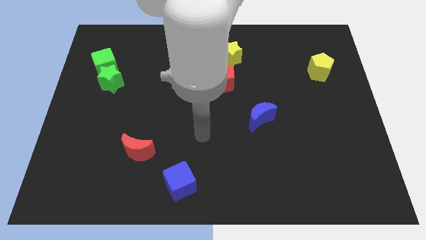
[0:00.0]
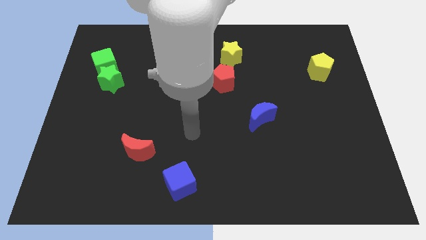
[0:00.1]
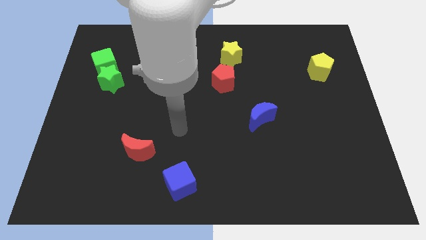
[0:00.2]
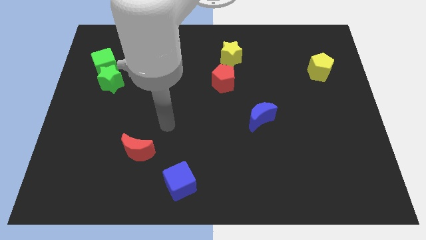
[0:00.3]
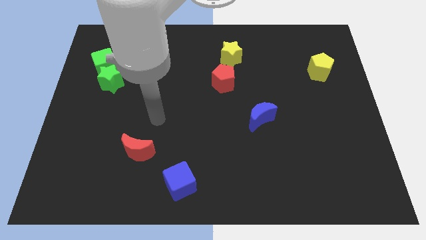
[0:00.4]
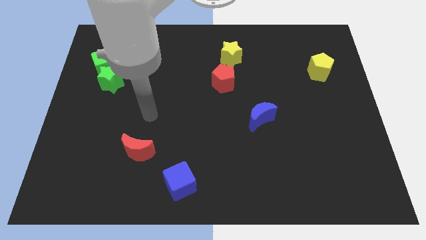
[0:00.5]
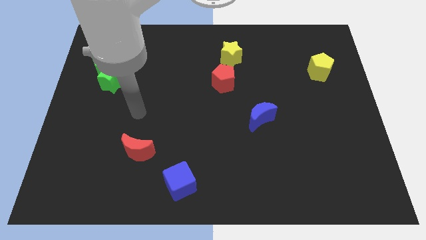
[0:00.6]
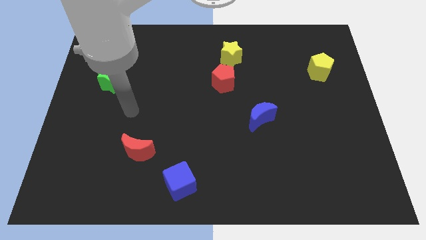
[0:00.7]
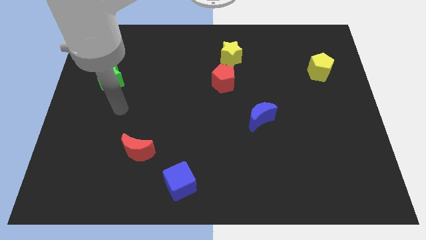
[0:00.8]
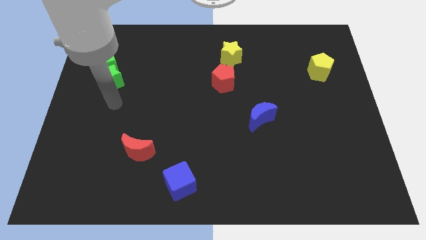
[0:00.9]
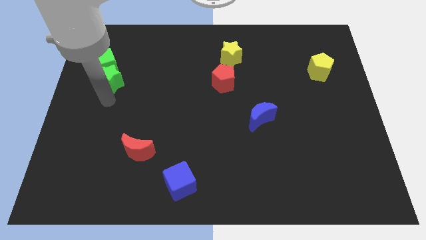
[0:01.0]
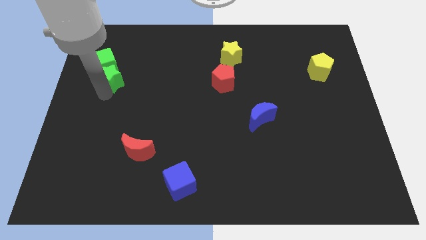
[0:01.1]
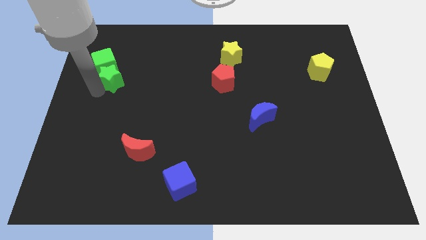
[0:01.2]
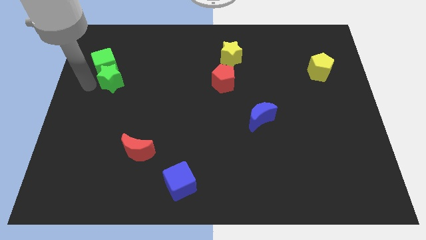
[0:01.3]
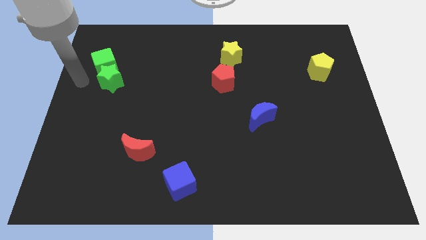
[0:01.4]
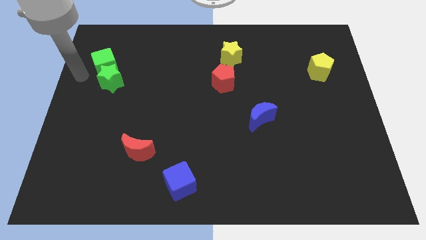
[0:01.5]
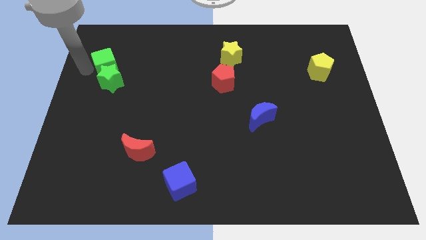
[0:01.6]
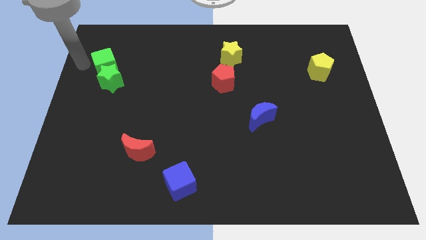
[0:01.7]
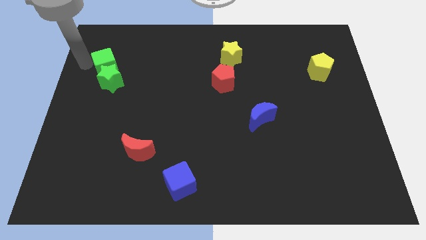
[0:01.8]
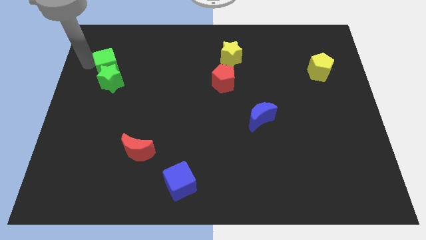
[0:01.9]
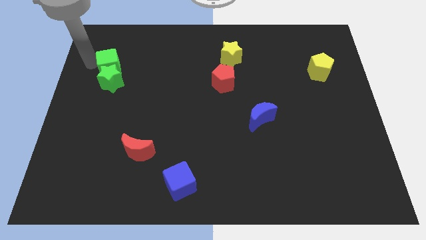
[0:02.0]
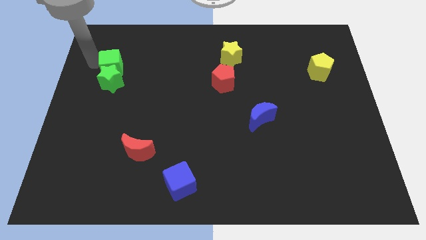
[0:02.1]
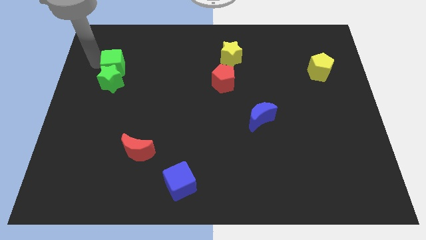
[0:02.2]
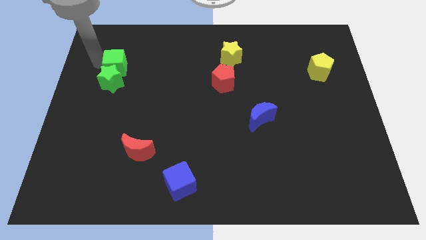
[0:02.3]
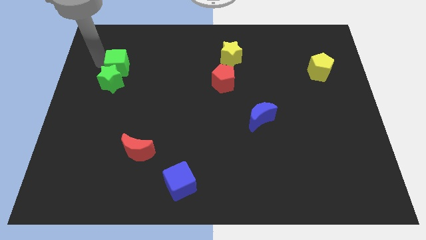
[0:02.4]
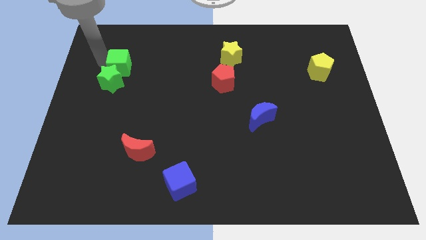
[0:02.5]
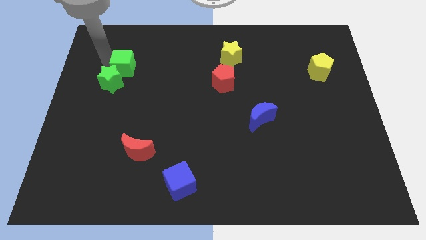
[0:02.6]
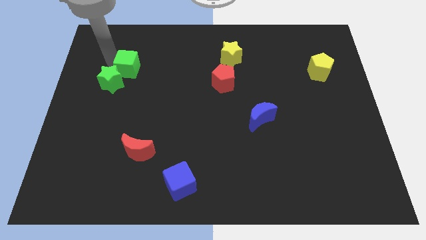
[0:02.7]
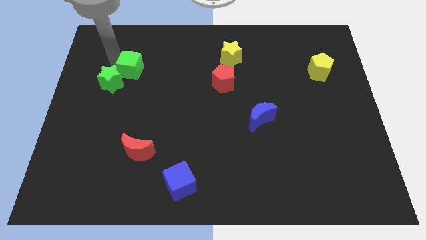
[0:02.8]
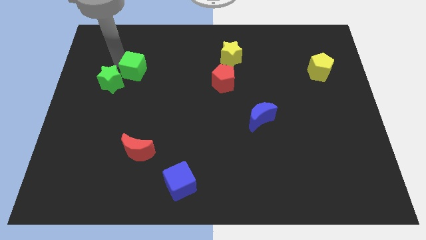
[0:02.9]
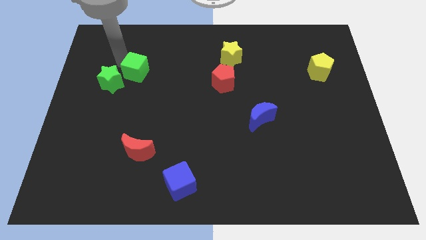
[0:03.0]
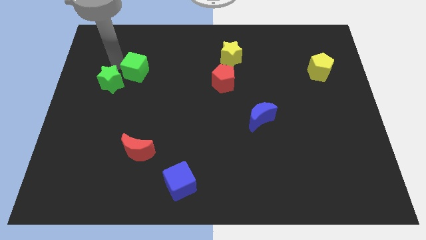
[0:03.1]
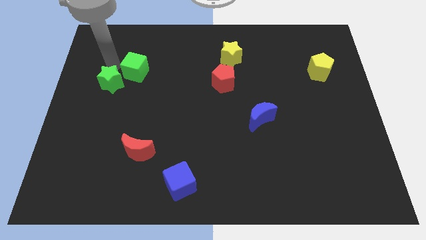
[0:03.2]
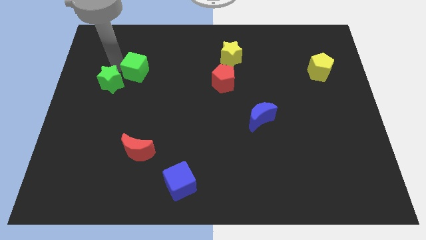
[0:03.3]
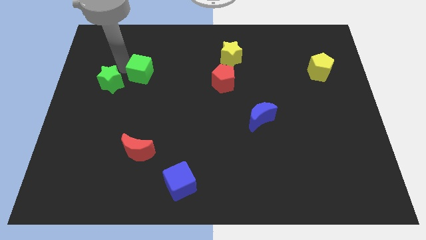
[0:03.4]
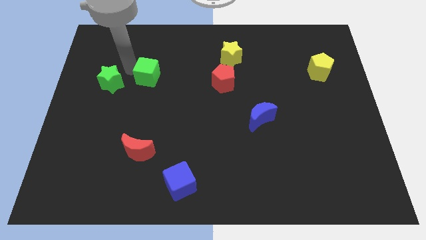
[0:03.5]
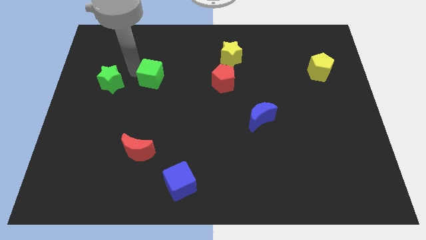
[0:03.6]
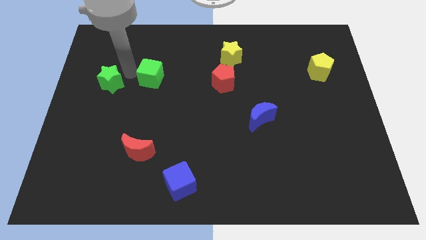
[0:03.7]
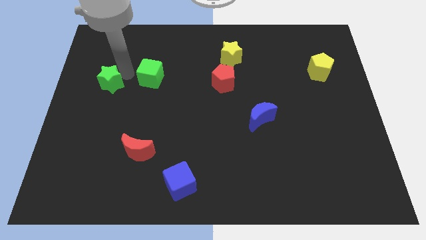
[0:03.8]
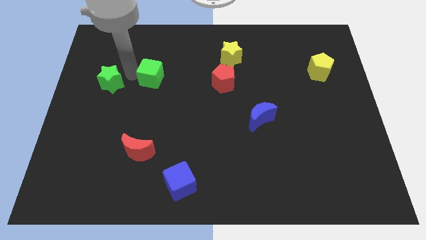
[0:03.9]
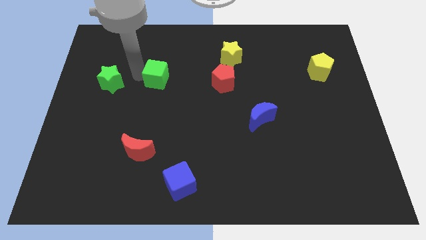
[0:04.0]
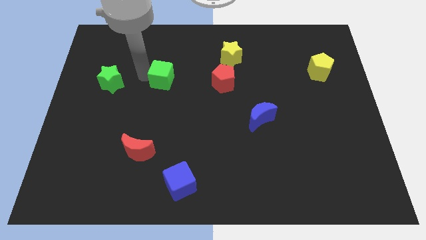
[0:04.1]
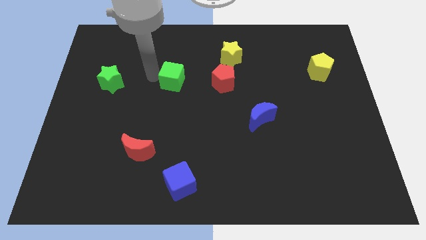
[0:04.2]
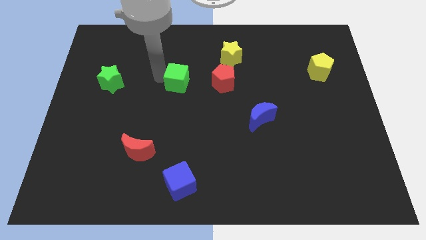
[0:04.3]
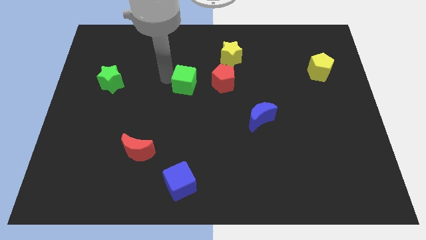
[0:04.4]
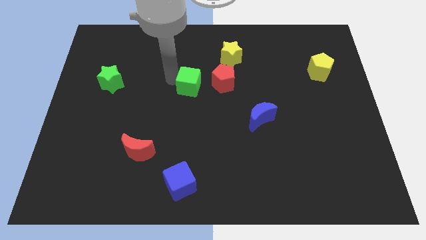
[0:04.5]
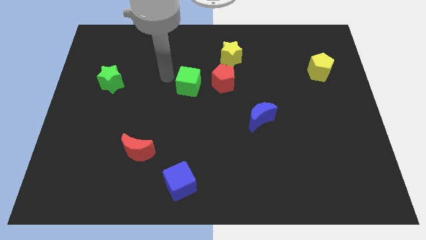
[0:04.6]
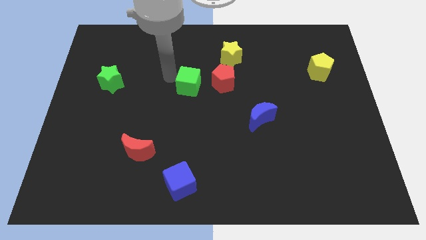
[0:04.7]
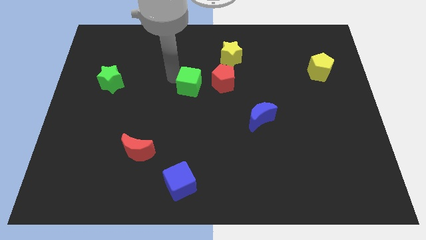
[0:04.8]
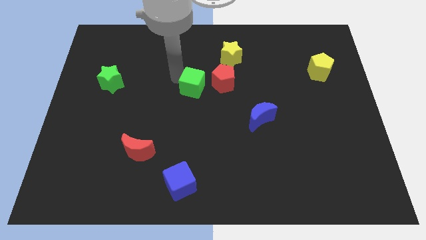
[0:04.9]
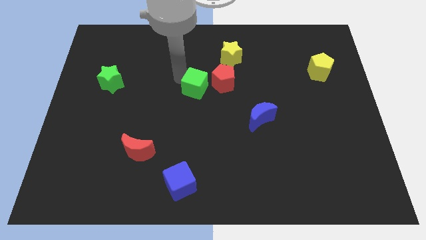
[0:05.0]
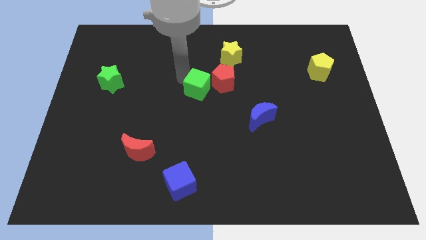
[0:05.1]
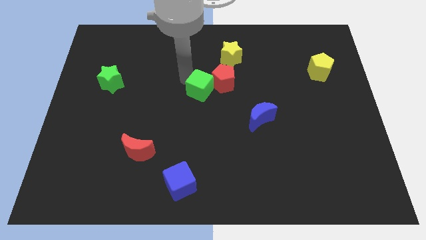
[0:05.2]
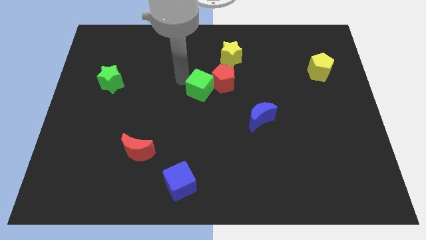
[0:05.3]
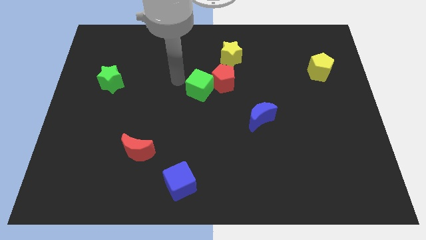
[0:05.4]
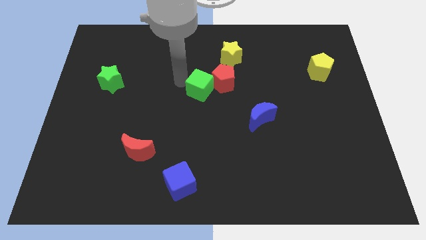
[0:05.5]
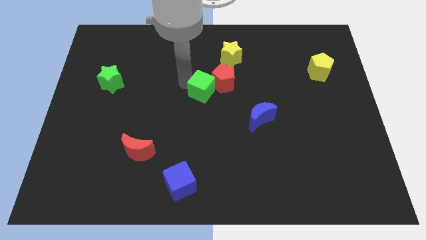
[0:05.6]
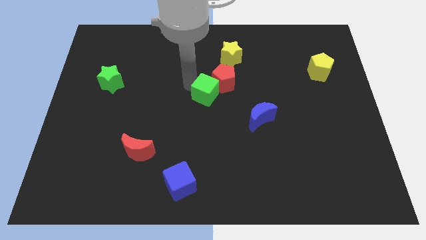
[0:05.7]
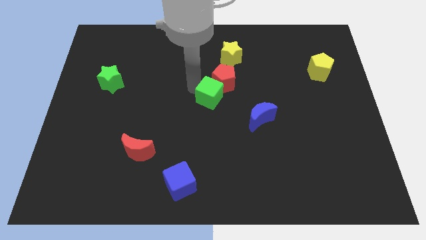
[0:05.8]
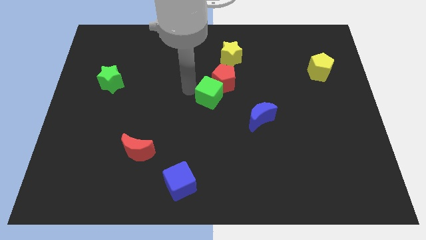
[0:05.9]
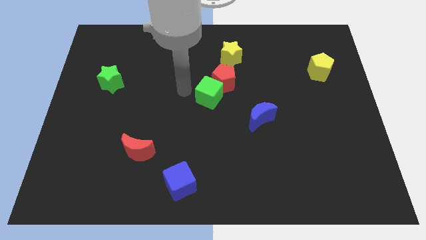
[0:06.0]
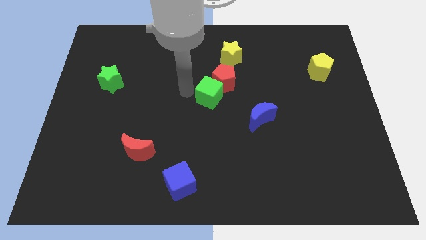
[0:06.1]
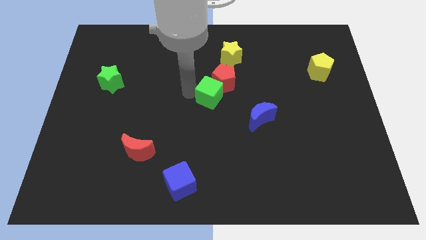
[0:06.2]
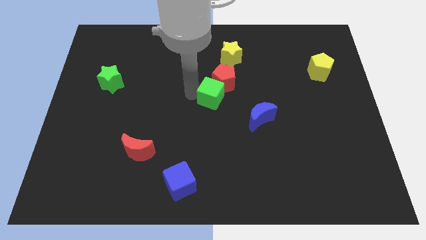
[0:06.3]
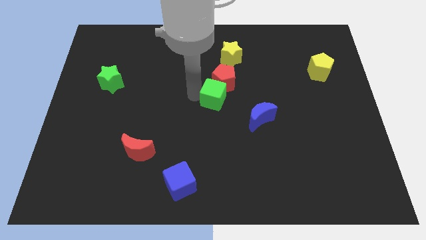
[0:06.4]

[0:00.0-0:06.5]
put the green cube to the top left side of the blue moon

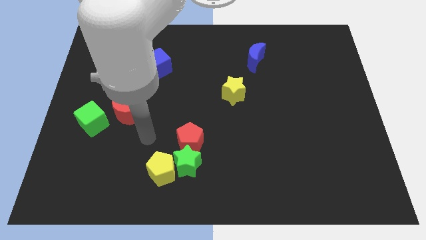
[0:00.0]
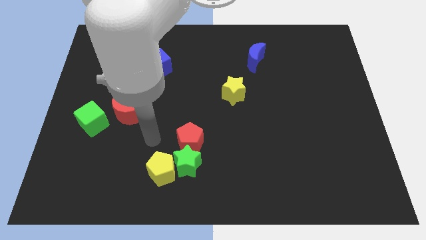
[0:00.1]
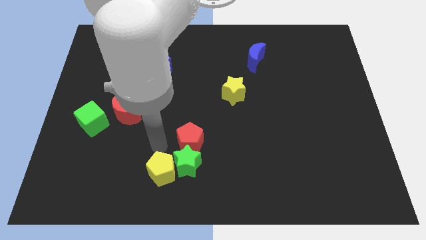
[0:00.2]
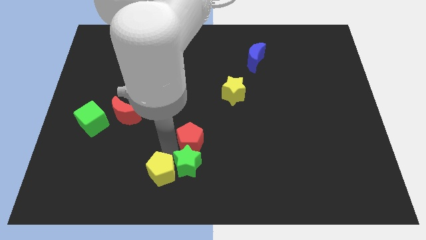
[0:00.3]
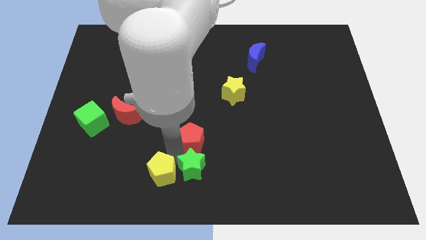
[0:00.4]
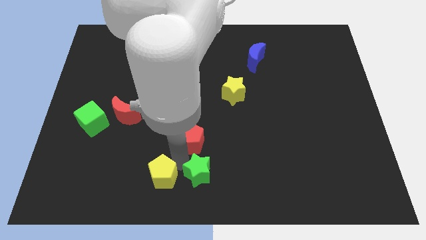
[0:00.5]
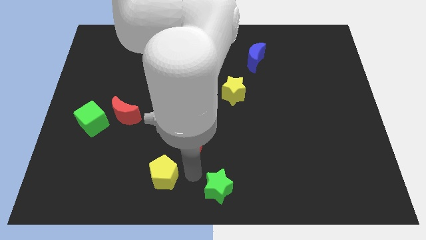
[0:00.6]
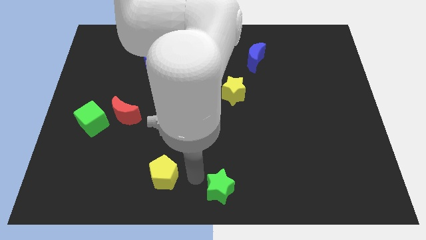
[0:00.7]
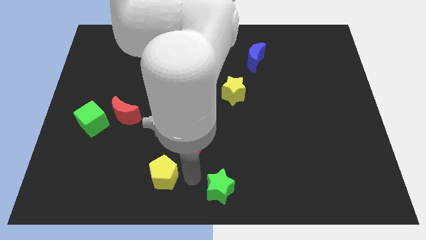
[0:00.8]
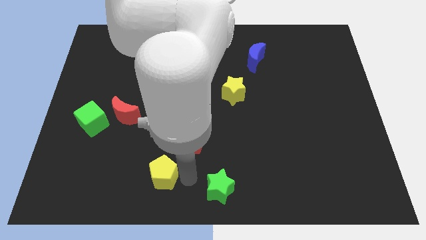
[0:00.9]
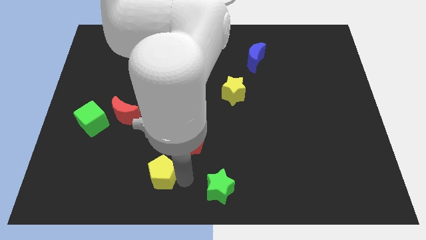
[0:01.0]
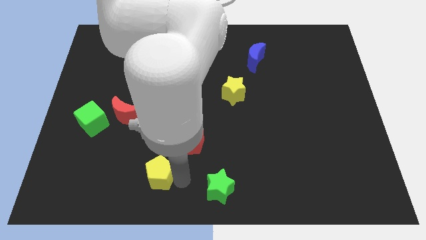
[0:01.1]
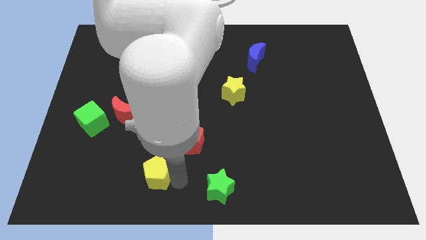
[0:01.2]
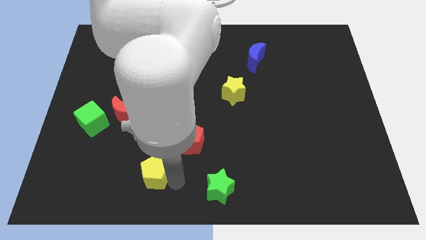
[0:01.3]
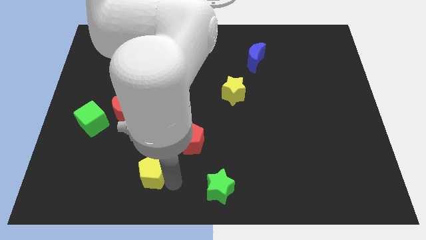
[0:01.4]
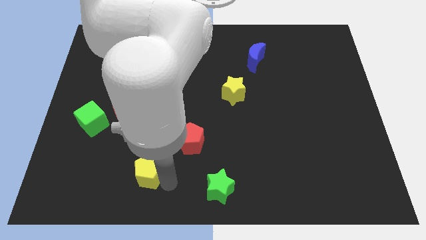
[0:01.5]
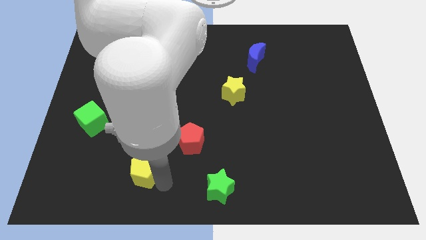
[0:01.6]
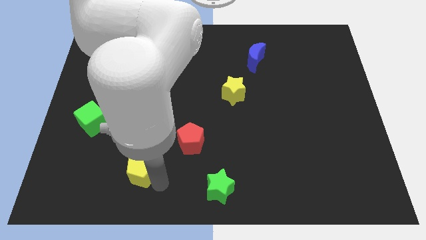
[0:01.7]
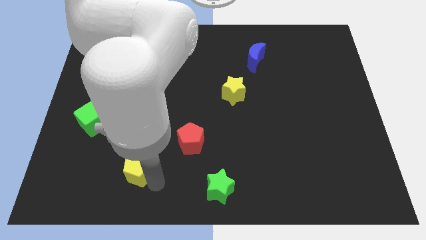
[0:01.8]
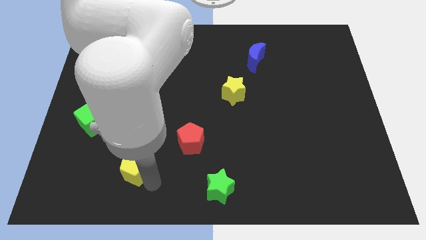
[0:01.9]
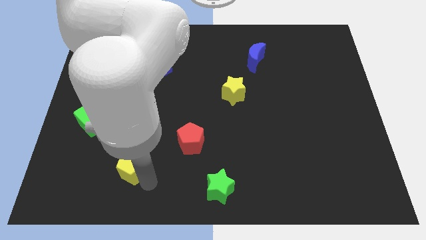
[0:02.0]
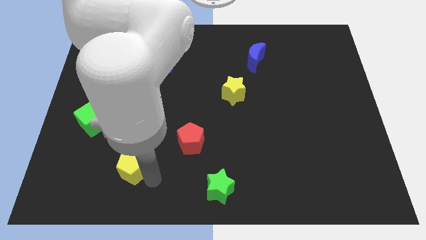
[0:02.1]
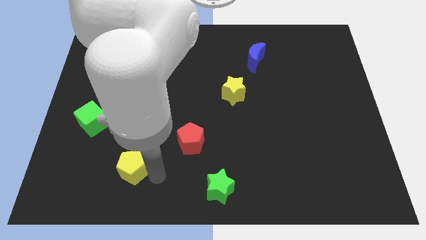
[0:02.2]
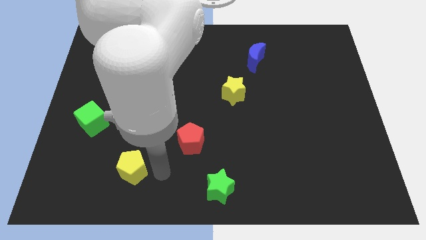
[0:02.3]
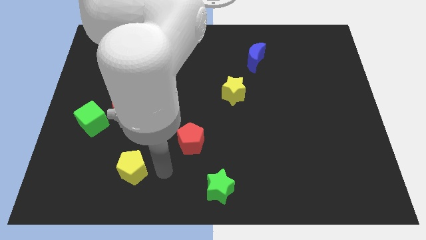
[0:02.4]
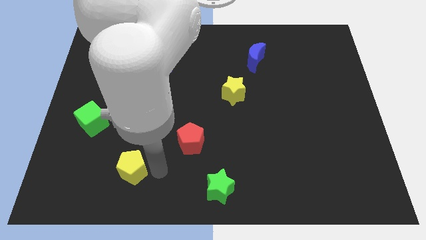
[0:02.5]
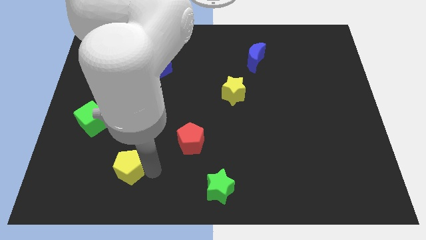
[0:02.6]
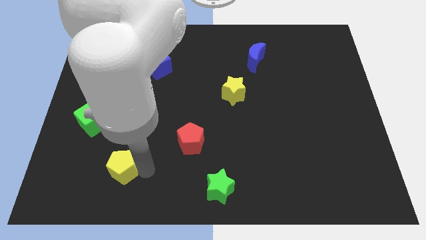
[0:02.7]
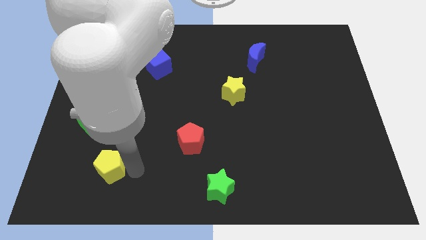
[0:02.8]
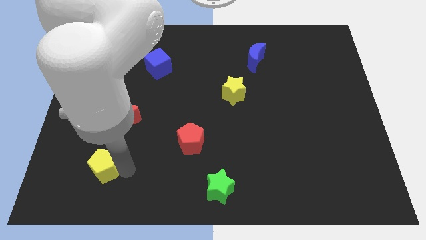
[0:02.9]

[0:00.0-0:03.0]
push the yellow pentagon to the bottom of the green cube
